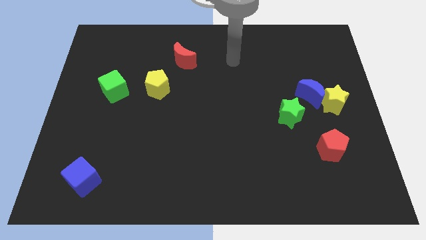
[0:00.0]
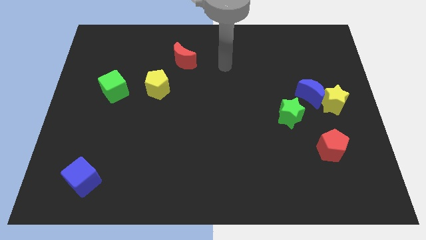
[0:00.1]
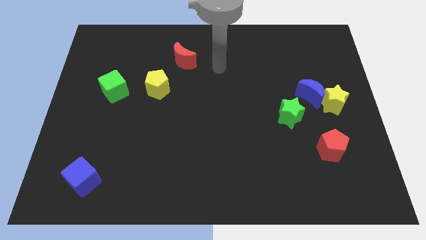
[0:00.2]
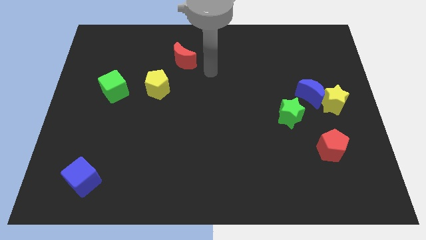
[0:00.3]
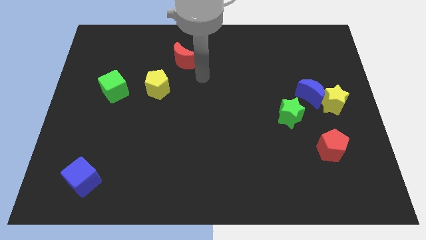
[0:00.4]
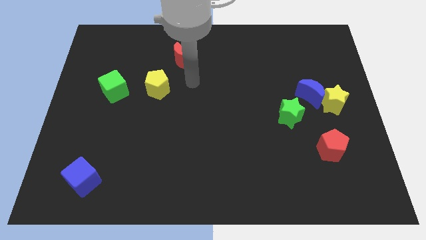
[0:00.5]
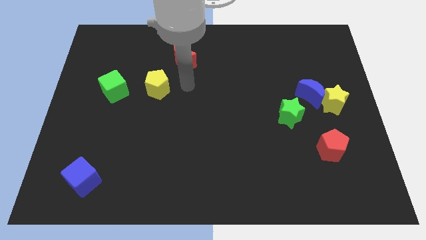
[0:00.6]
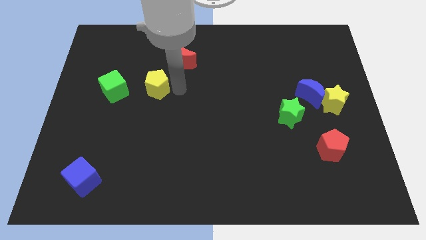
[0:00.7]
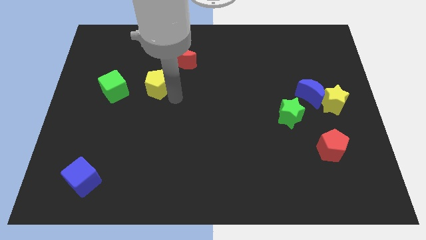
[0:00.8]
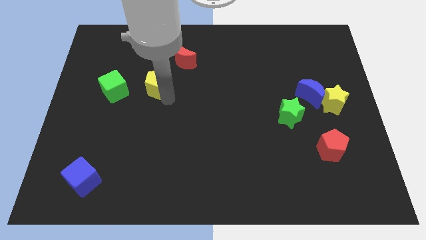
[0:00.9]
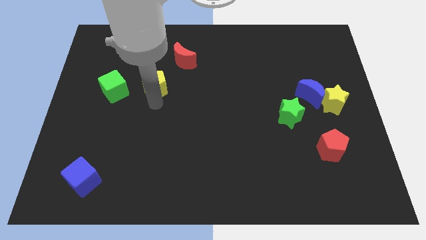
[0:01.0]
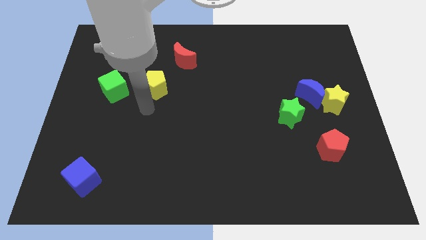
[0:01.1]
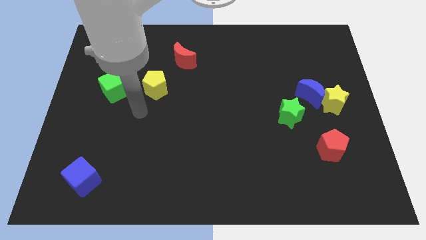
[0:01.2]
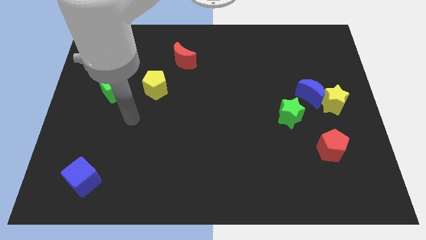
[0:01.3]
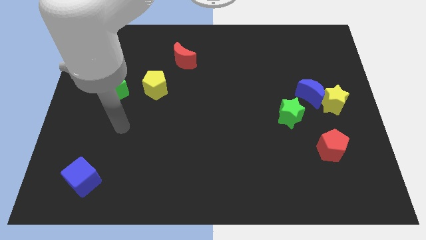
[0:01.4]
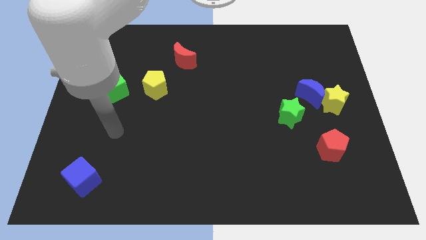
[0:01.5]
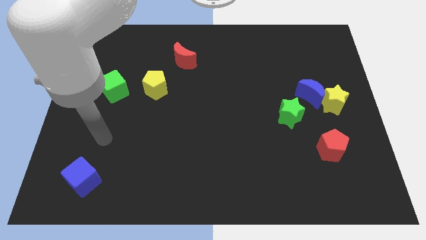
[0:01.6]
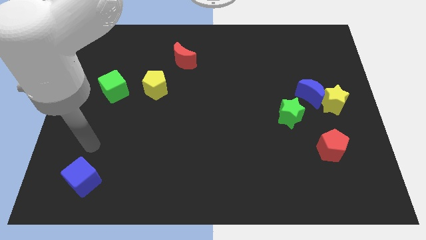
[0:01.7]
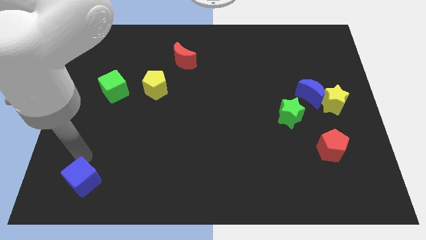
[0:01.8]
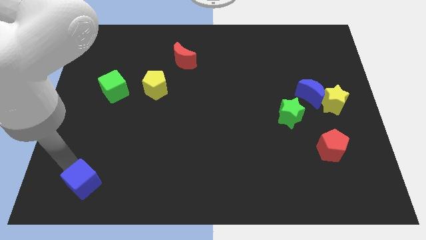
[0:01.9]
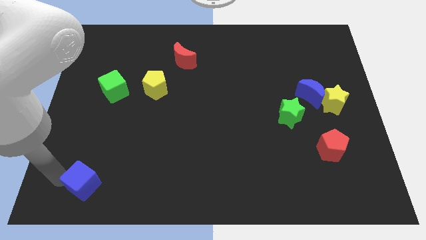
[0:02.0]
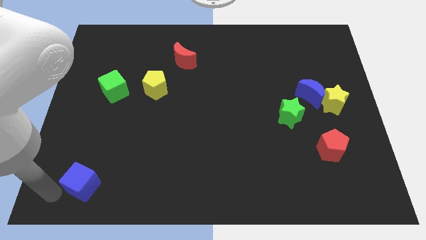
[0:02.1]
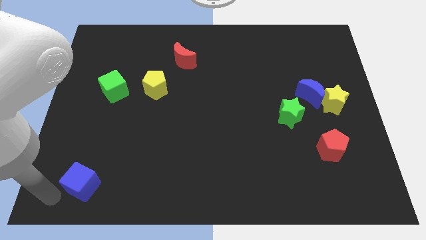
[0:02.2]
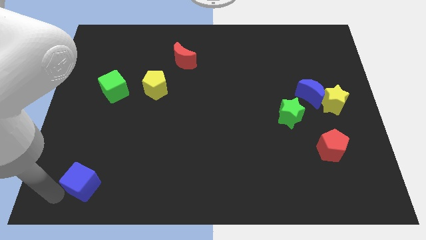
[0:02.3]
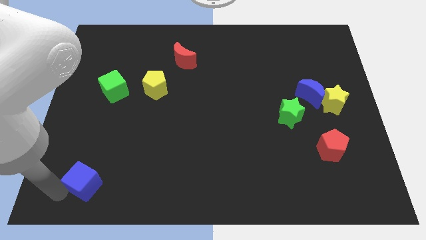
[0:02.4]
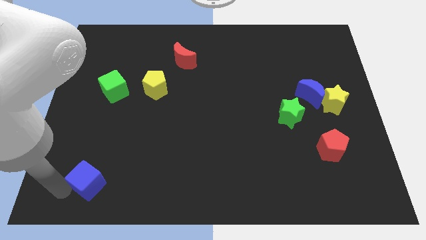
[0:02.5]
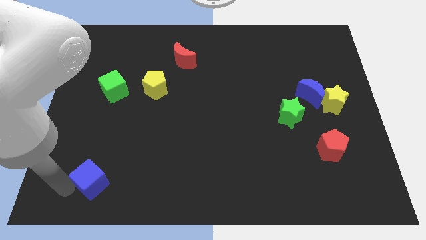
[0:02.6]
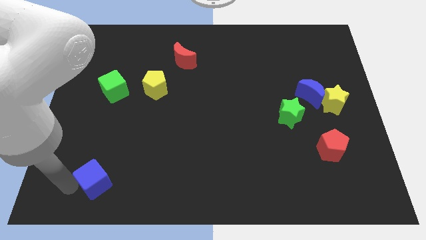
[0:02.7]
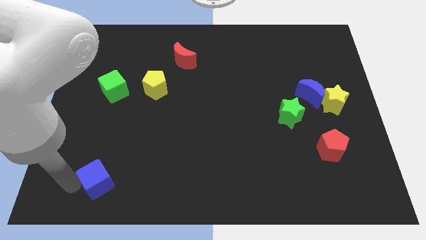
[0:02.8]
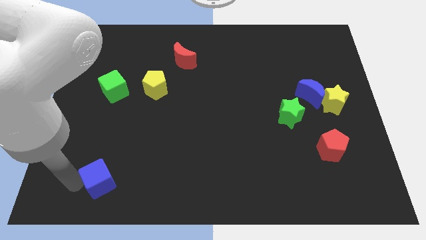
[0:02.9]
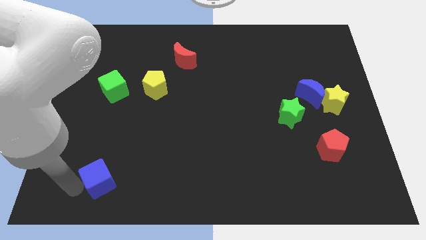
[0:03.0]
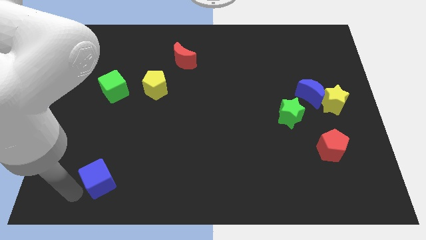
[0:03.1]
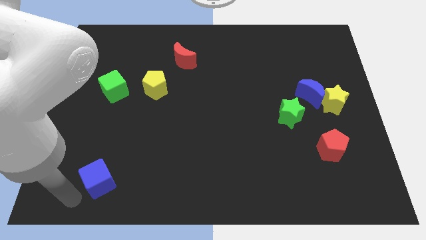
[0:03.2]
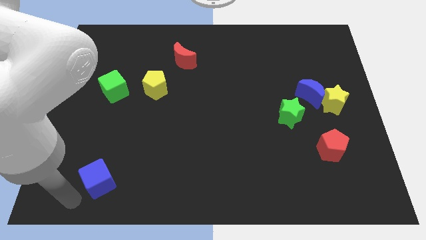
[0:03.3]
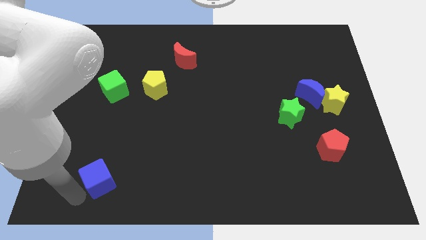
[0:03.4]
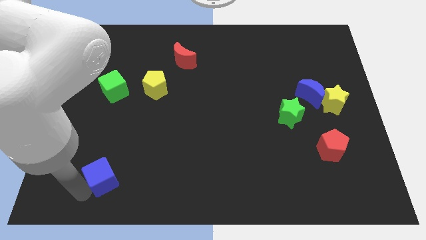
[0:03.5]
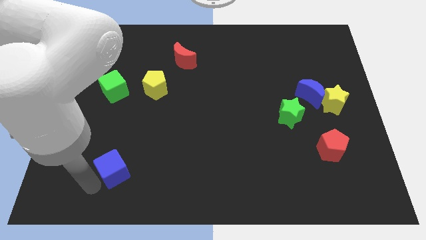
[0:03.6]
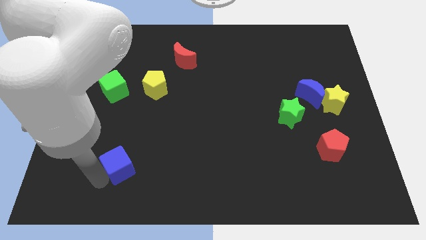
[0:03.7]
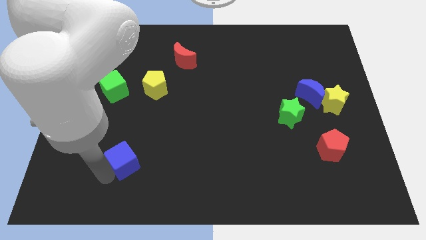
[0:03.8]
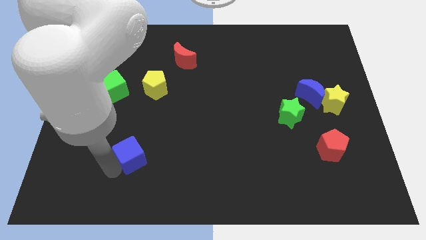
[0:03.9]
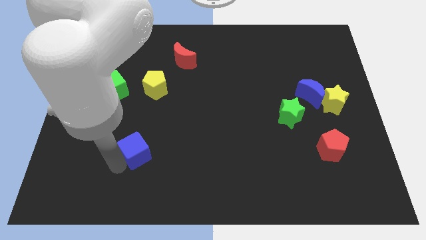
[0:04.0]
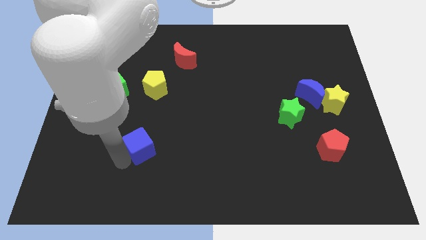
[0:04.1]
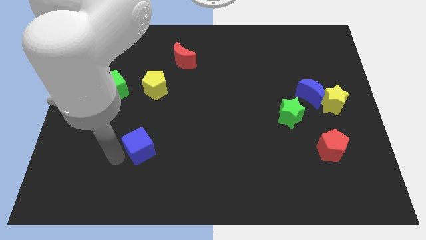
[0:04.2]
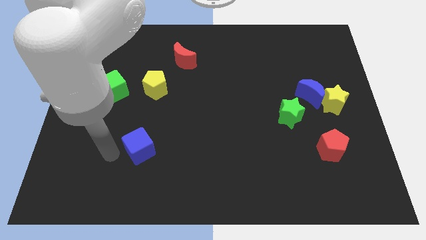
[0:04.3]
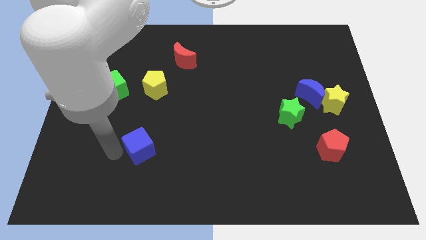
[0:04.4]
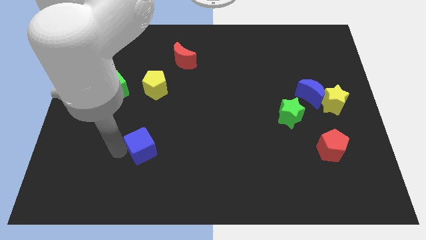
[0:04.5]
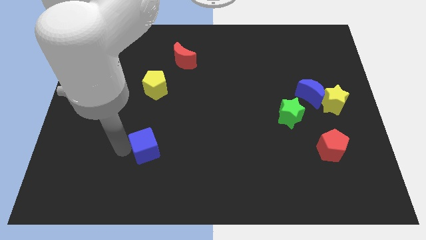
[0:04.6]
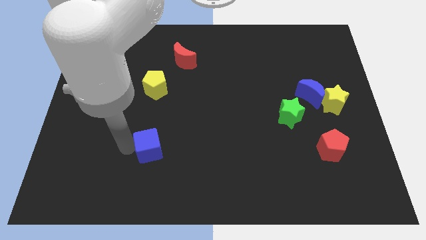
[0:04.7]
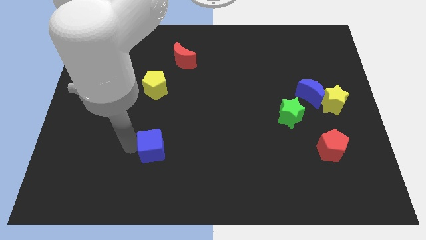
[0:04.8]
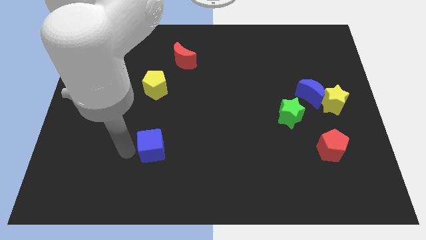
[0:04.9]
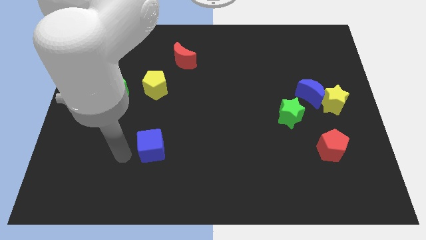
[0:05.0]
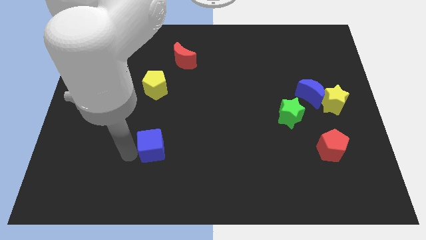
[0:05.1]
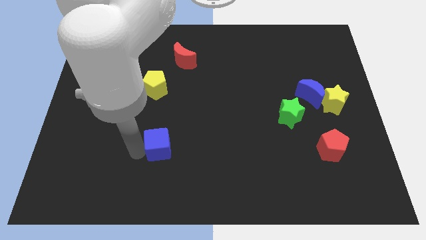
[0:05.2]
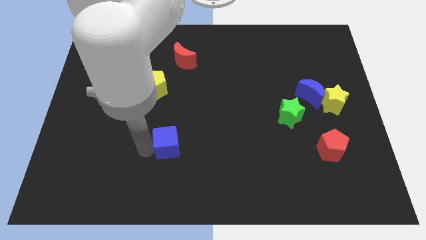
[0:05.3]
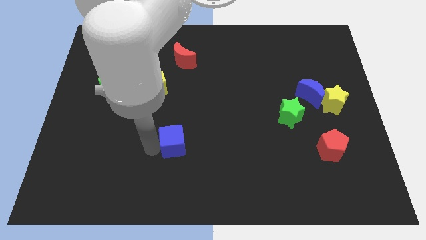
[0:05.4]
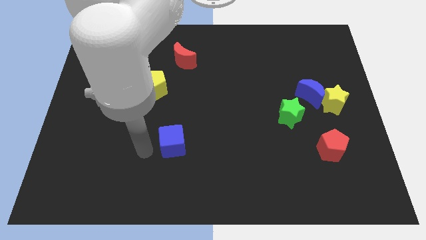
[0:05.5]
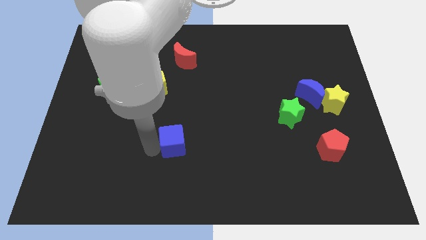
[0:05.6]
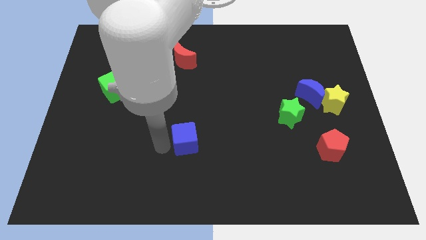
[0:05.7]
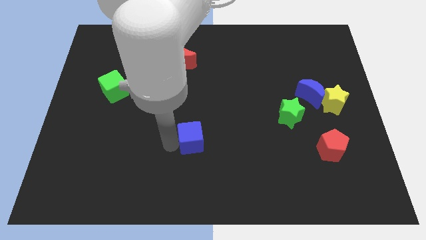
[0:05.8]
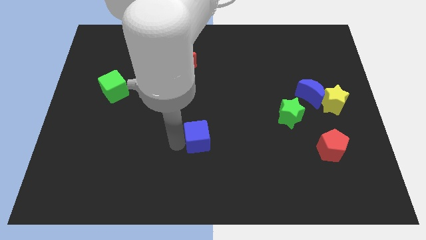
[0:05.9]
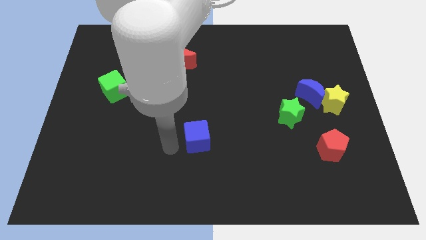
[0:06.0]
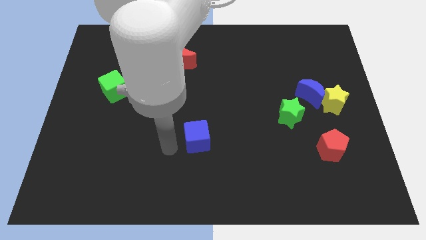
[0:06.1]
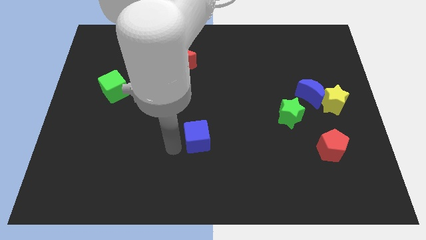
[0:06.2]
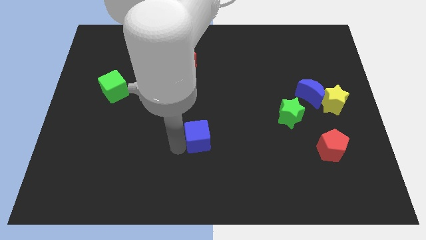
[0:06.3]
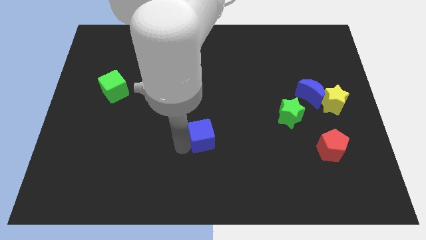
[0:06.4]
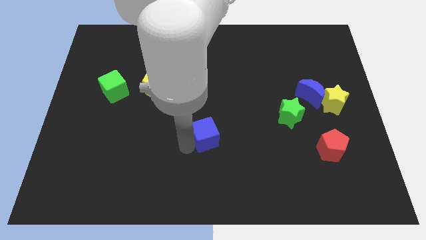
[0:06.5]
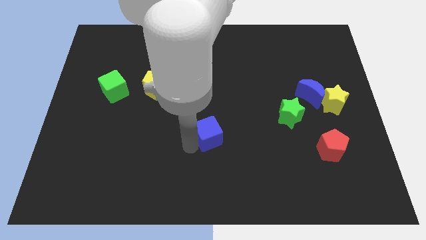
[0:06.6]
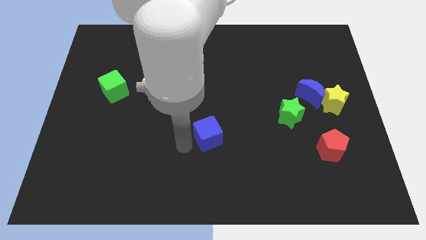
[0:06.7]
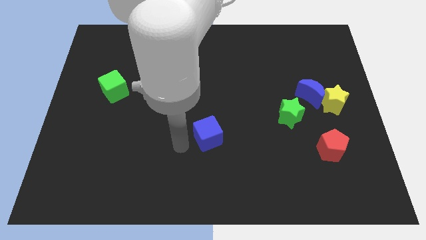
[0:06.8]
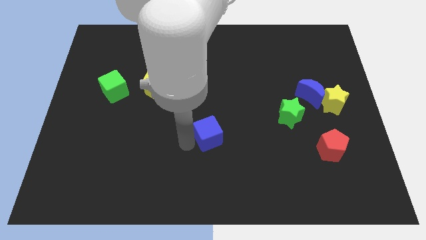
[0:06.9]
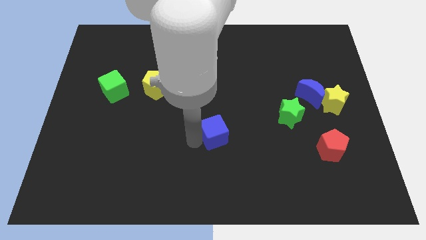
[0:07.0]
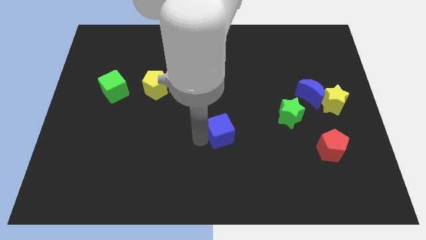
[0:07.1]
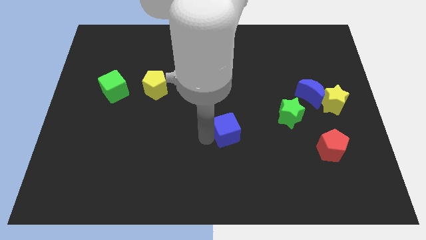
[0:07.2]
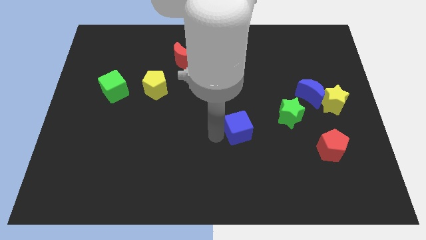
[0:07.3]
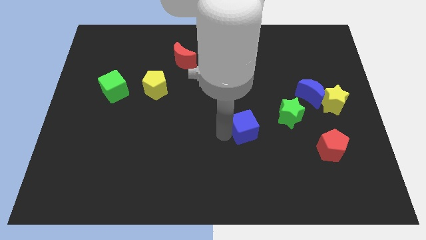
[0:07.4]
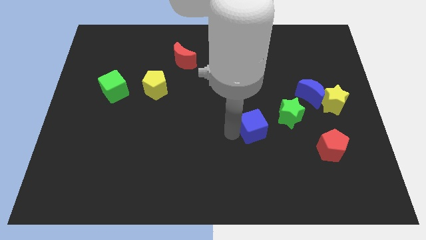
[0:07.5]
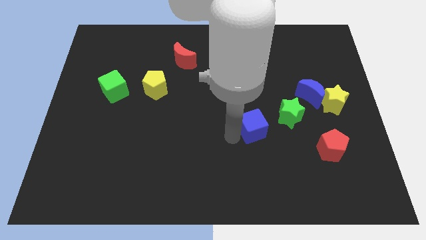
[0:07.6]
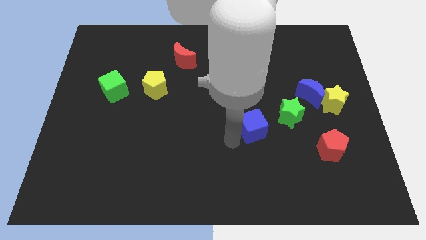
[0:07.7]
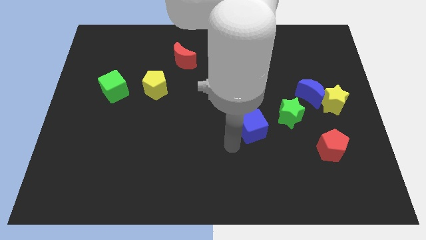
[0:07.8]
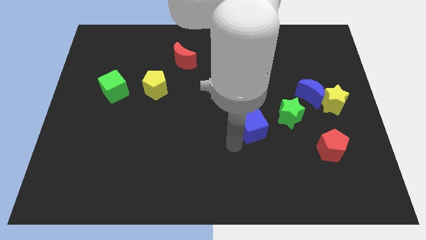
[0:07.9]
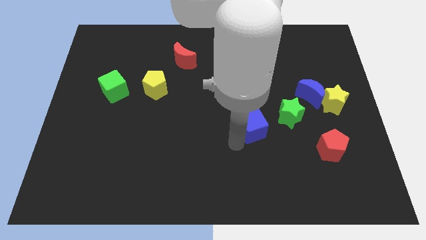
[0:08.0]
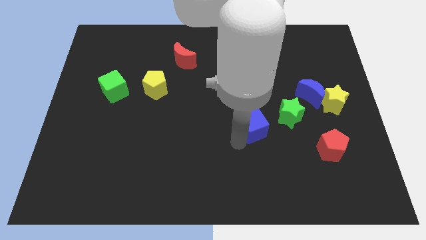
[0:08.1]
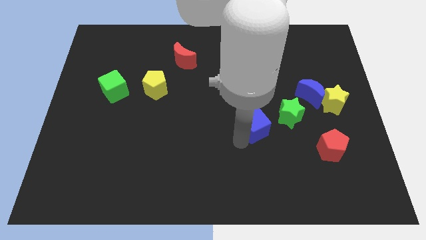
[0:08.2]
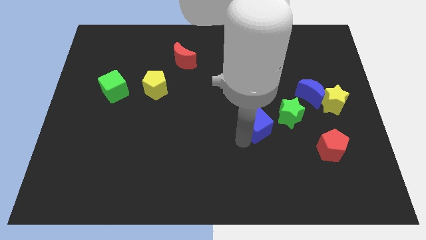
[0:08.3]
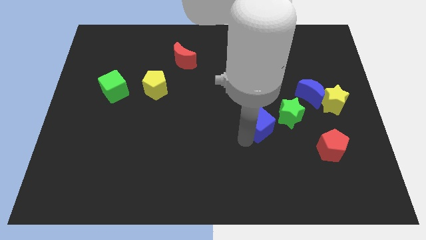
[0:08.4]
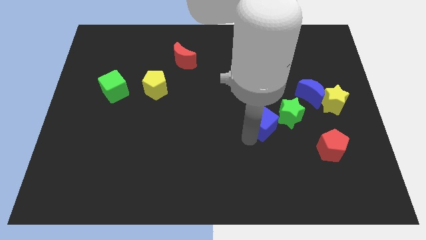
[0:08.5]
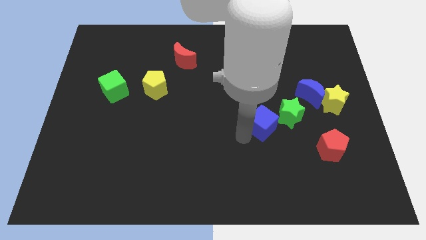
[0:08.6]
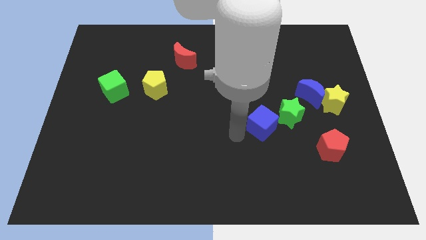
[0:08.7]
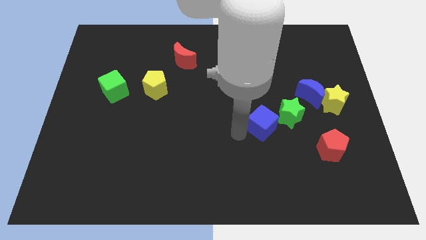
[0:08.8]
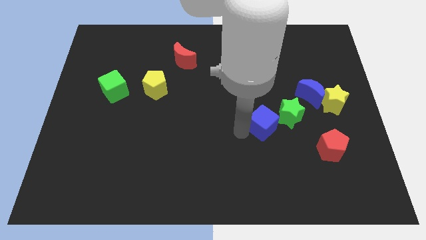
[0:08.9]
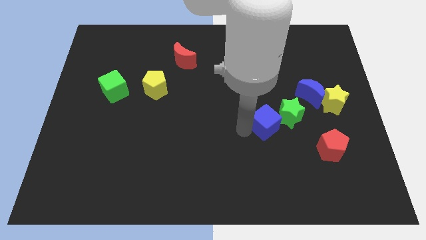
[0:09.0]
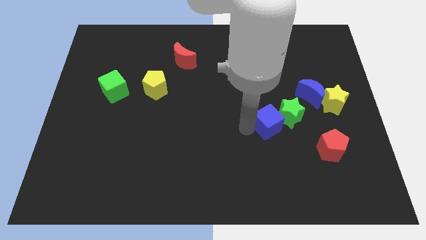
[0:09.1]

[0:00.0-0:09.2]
put the blue cube close to the green star
